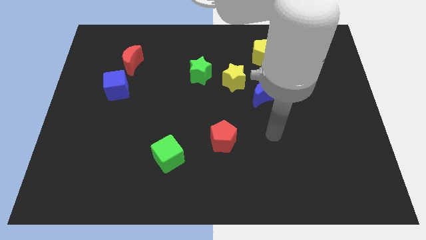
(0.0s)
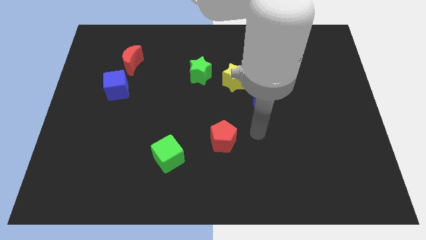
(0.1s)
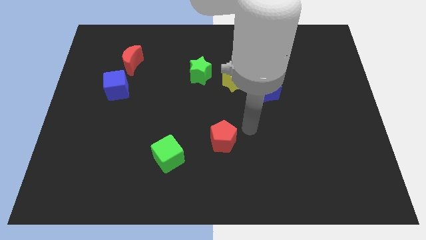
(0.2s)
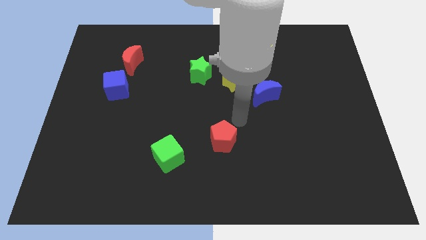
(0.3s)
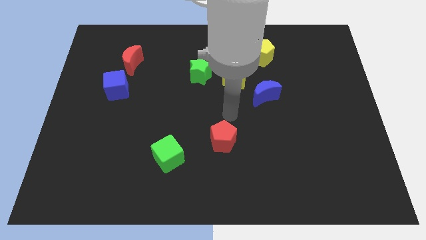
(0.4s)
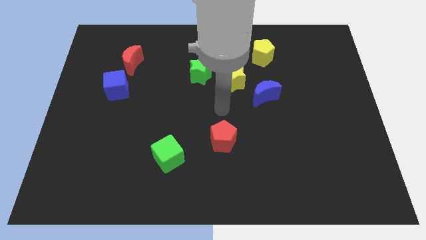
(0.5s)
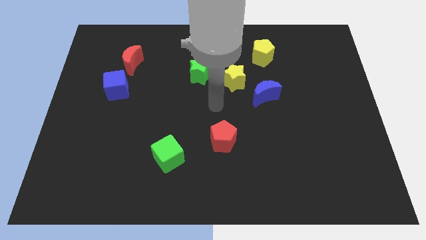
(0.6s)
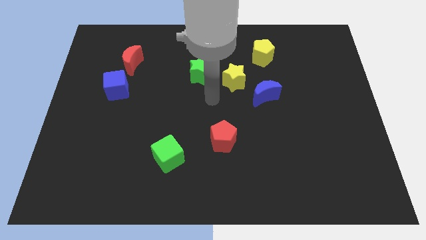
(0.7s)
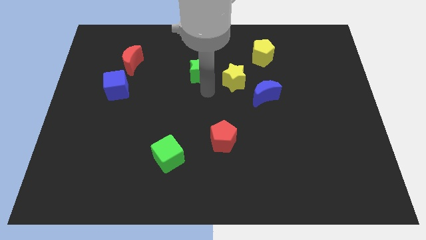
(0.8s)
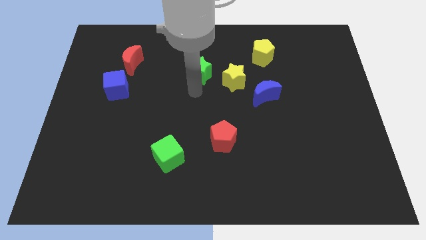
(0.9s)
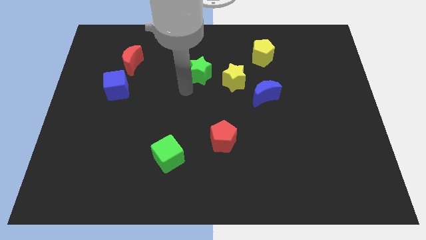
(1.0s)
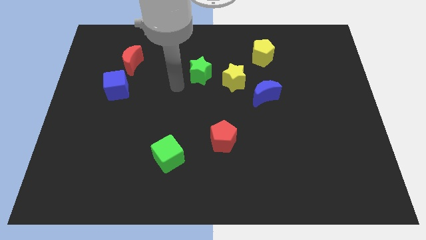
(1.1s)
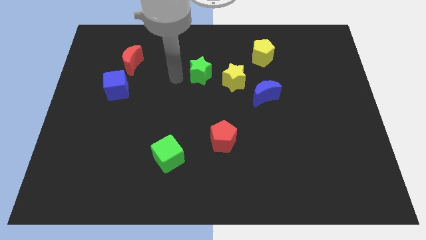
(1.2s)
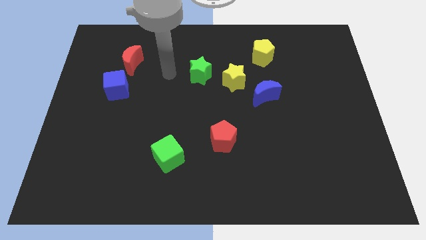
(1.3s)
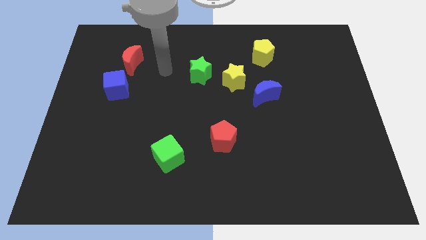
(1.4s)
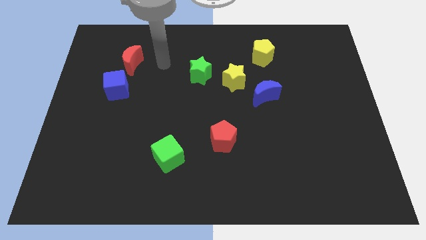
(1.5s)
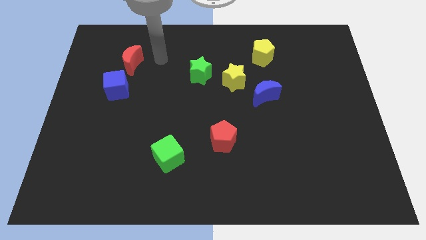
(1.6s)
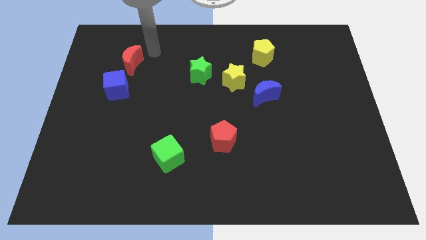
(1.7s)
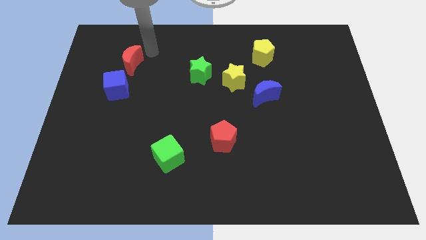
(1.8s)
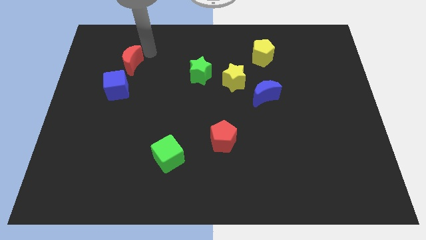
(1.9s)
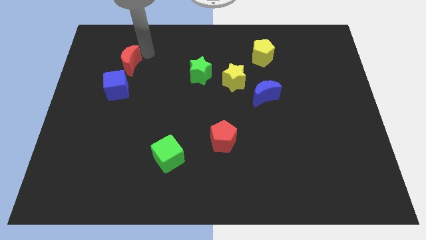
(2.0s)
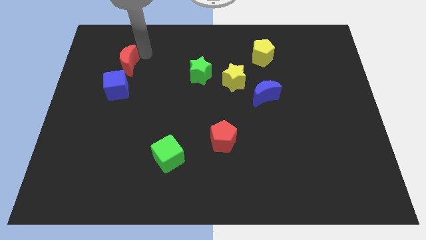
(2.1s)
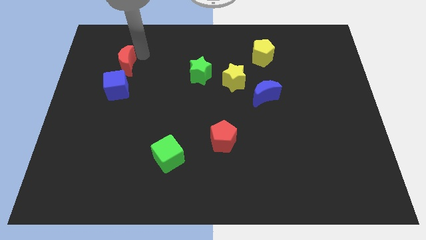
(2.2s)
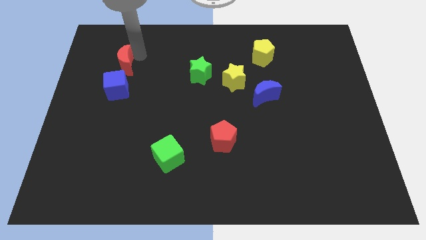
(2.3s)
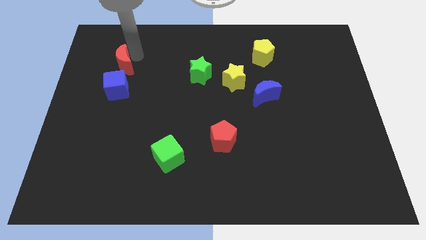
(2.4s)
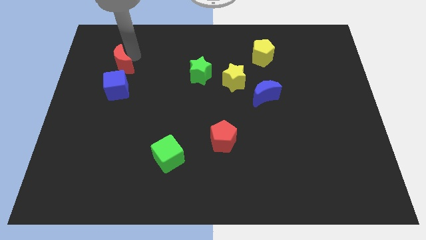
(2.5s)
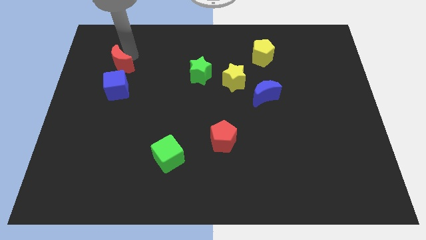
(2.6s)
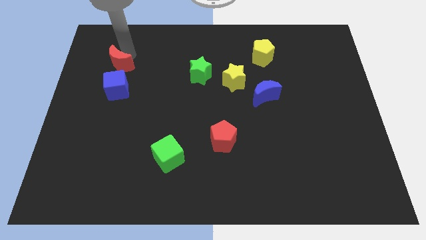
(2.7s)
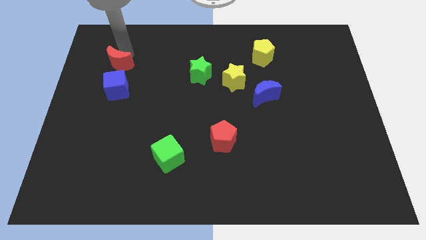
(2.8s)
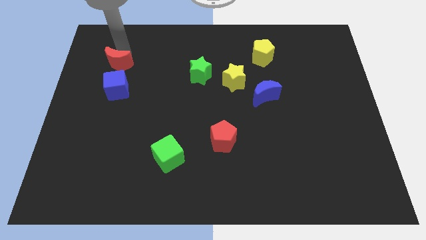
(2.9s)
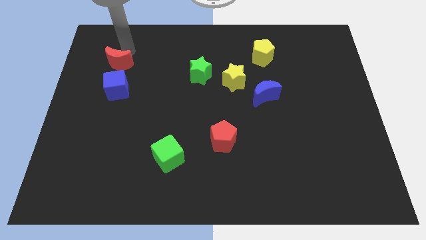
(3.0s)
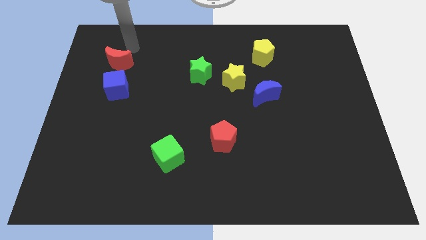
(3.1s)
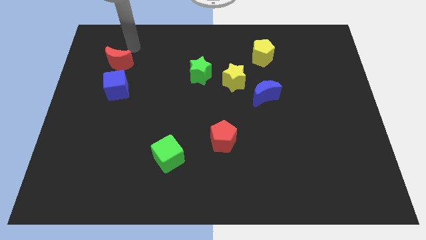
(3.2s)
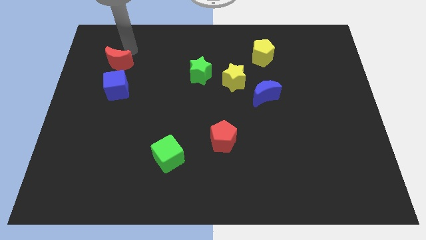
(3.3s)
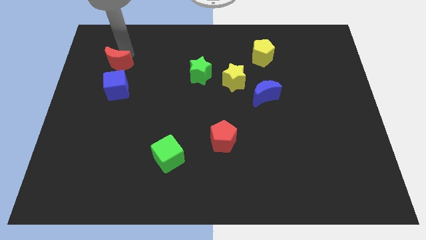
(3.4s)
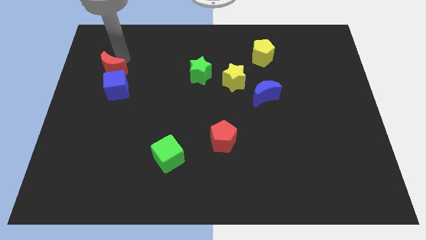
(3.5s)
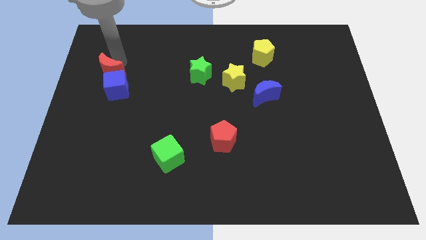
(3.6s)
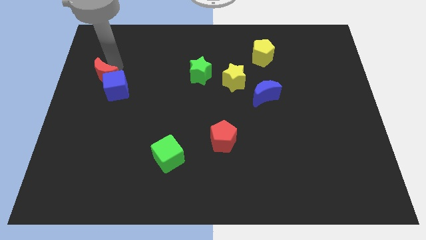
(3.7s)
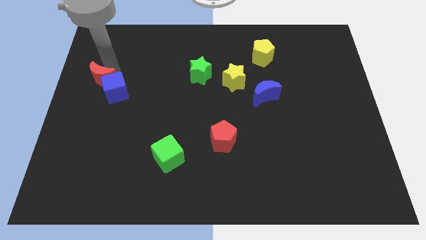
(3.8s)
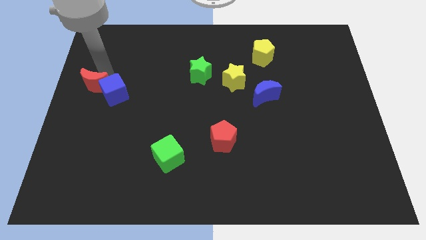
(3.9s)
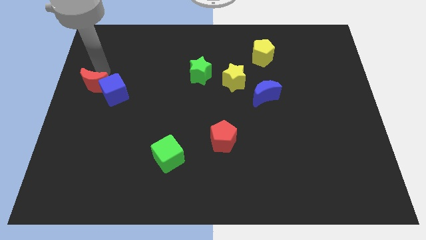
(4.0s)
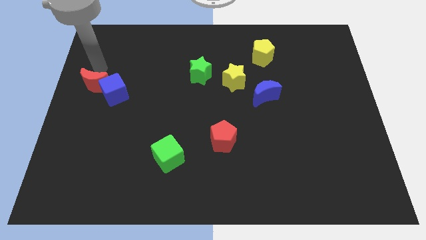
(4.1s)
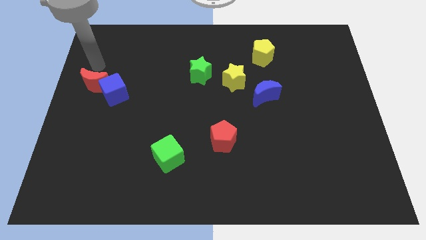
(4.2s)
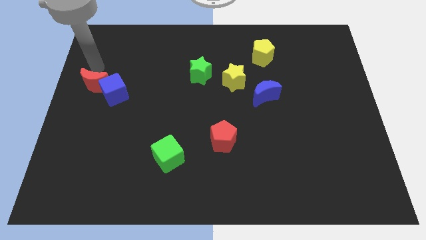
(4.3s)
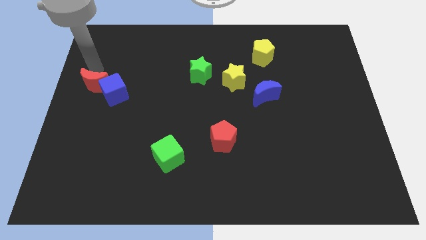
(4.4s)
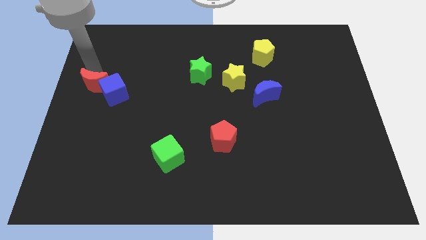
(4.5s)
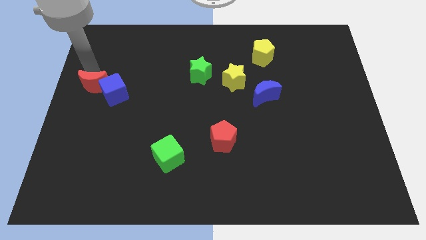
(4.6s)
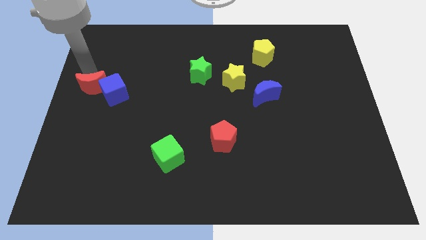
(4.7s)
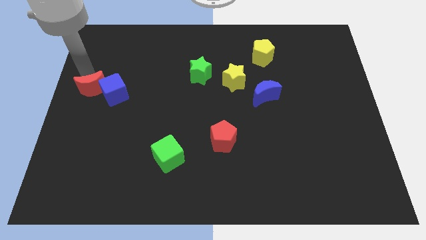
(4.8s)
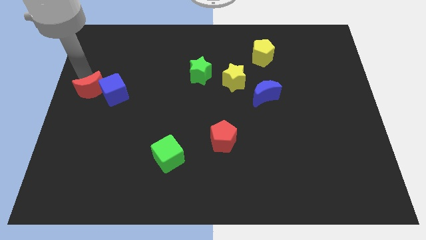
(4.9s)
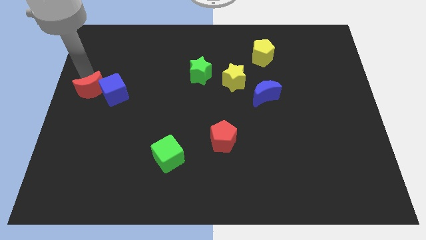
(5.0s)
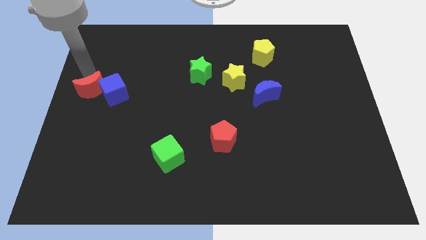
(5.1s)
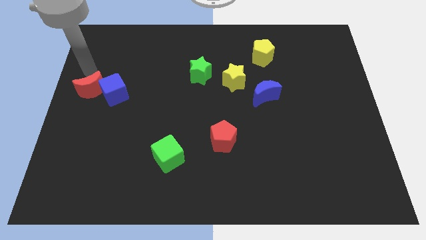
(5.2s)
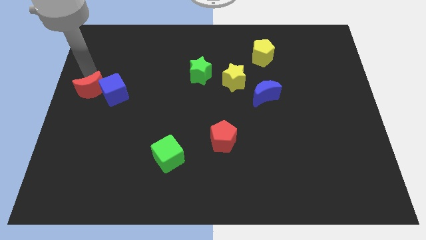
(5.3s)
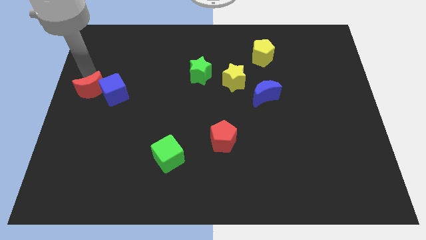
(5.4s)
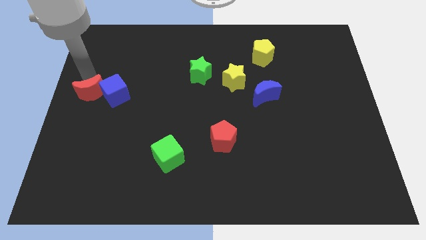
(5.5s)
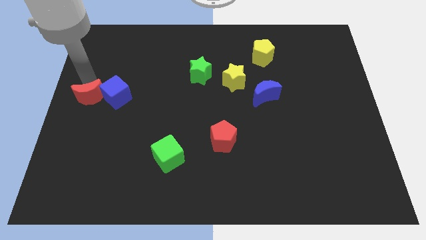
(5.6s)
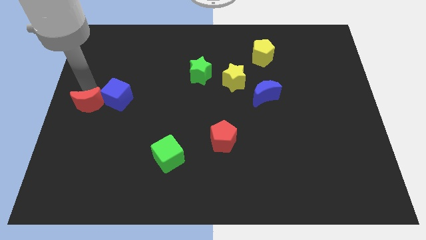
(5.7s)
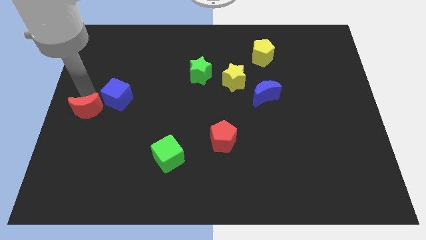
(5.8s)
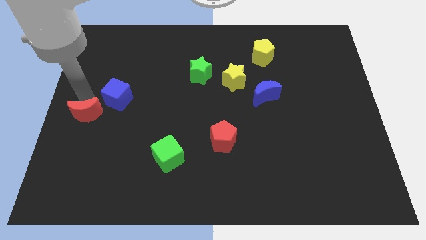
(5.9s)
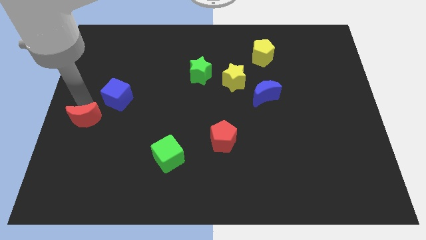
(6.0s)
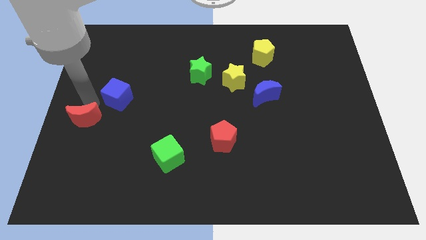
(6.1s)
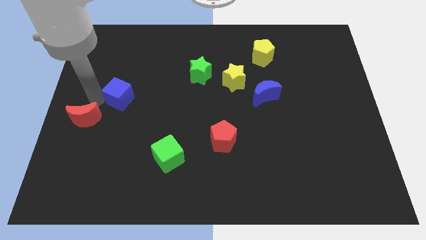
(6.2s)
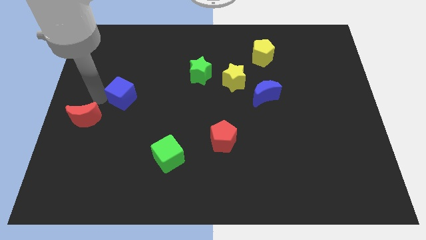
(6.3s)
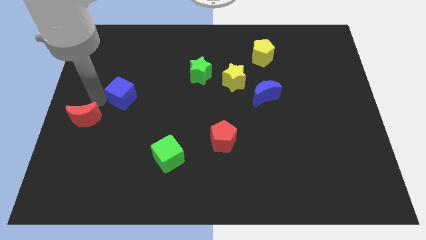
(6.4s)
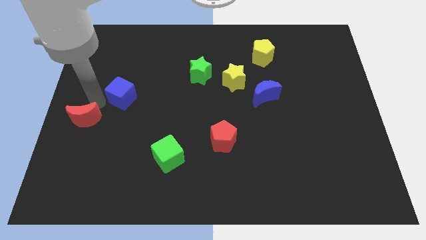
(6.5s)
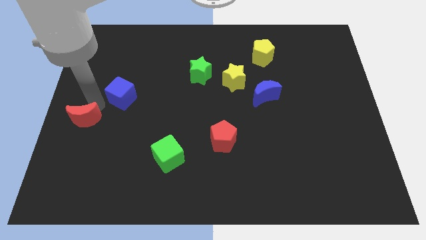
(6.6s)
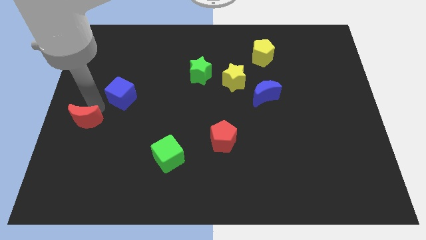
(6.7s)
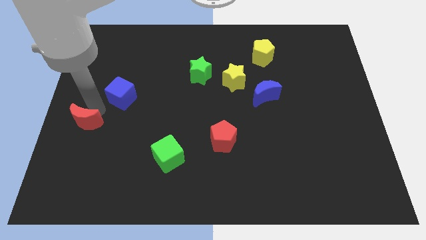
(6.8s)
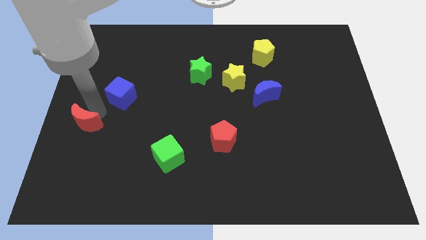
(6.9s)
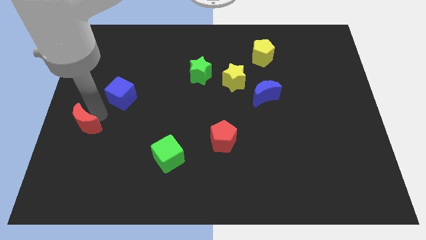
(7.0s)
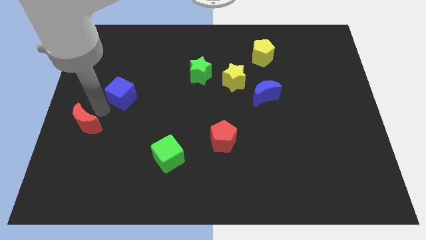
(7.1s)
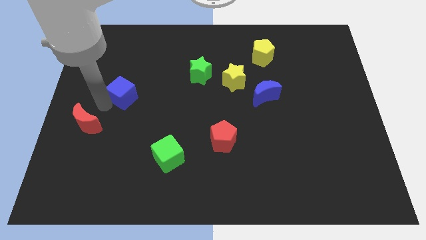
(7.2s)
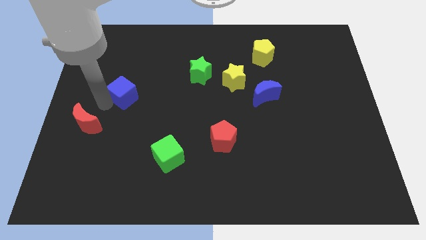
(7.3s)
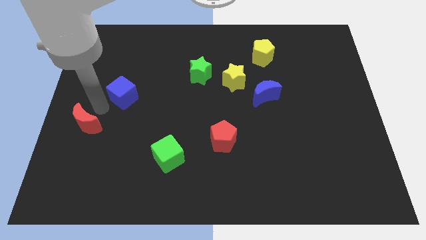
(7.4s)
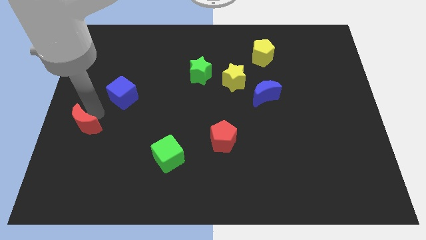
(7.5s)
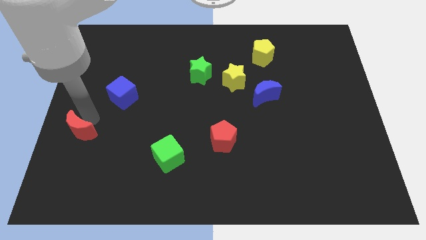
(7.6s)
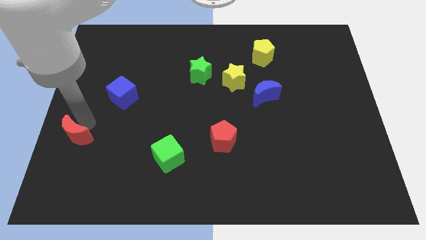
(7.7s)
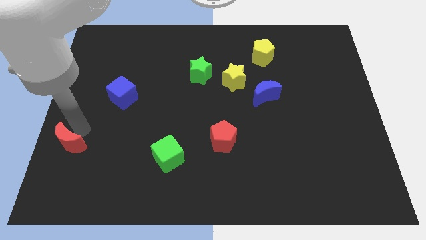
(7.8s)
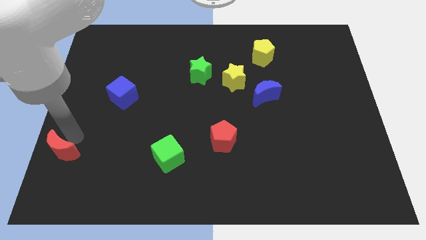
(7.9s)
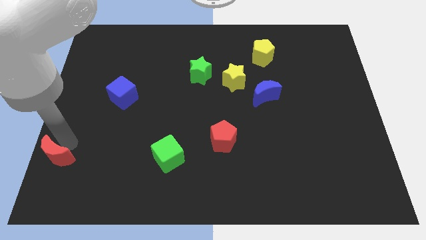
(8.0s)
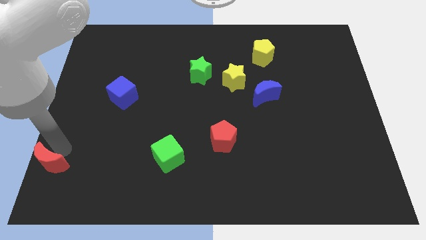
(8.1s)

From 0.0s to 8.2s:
slide the red moon to the bottom left corner
